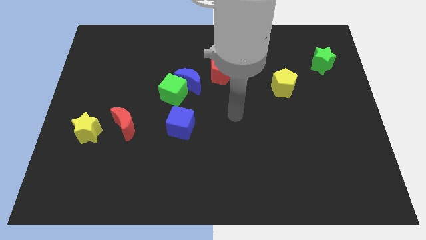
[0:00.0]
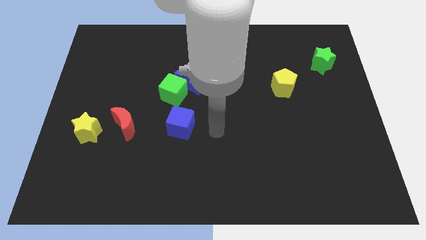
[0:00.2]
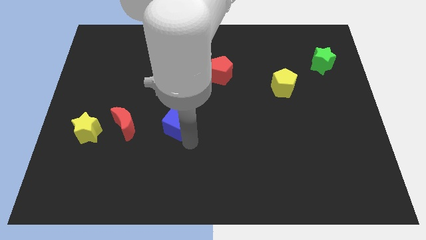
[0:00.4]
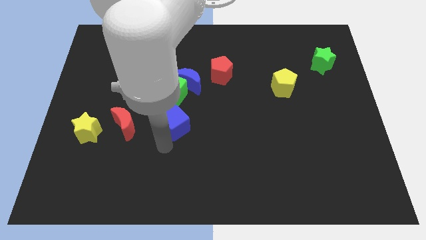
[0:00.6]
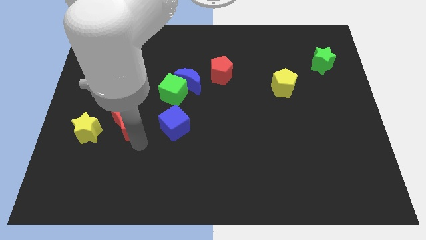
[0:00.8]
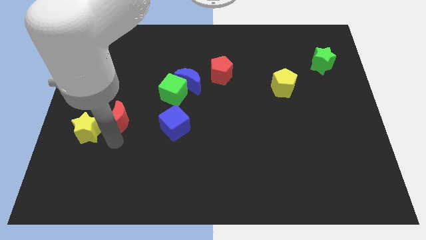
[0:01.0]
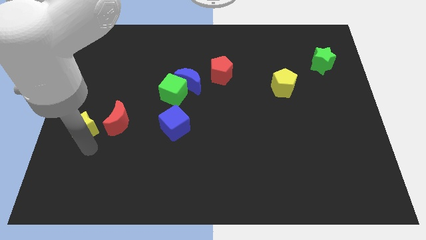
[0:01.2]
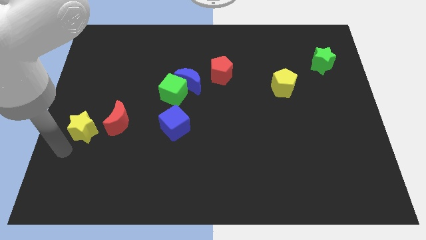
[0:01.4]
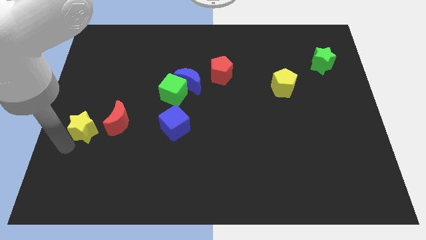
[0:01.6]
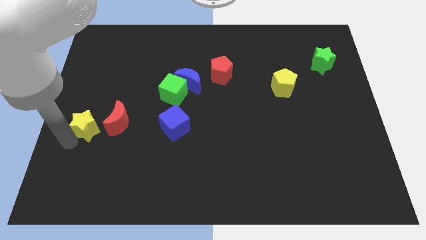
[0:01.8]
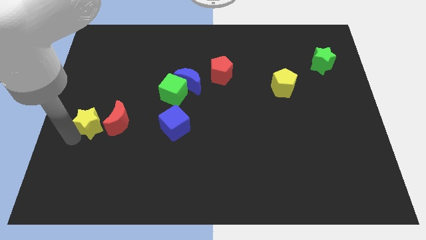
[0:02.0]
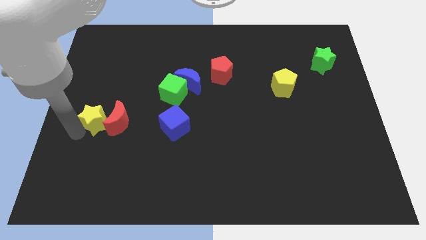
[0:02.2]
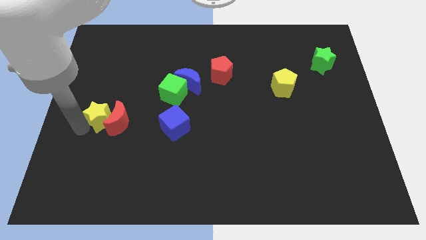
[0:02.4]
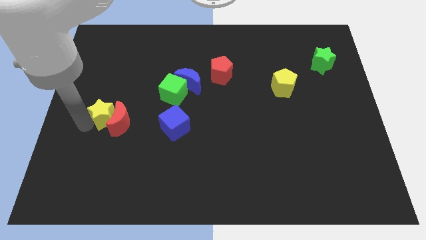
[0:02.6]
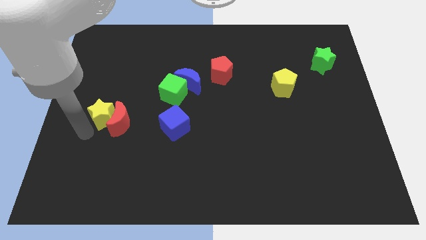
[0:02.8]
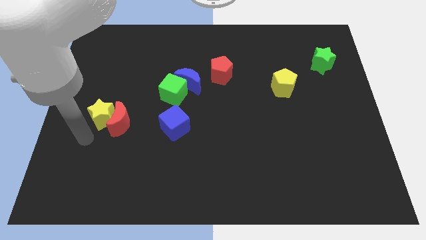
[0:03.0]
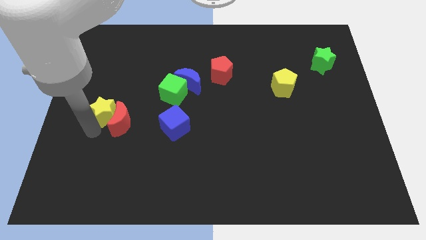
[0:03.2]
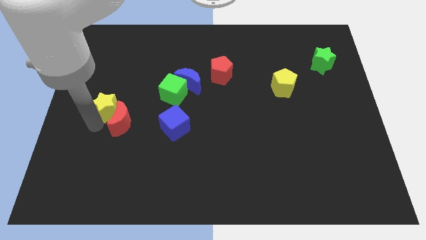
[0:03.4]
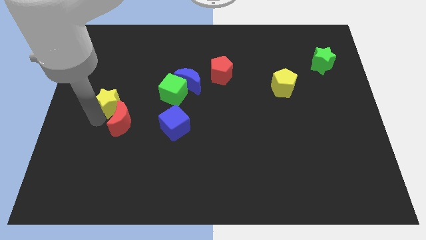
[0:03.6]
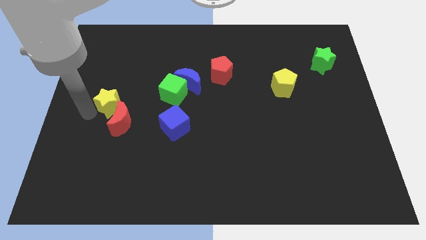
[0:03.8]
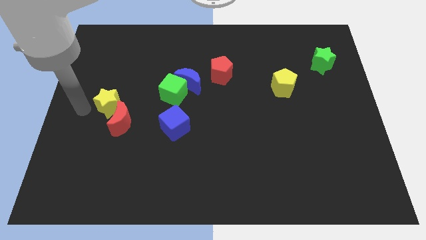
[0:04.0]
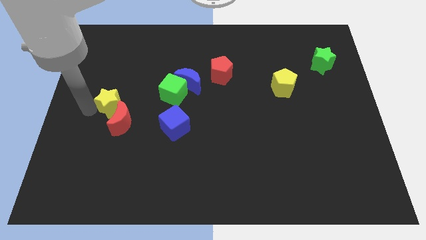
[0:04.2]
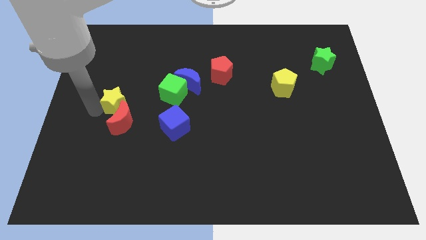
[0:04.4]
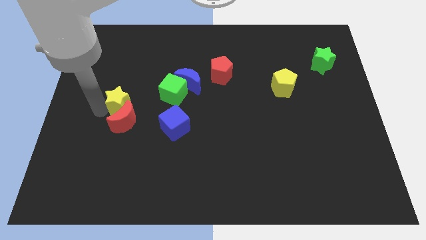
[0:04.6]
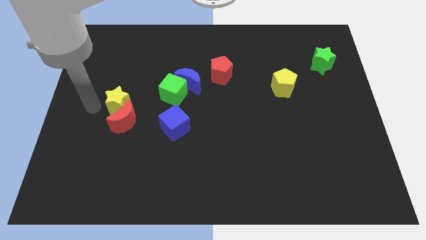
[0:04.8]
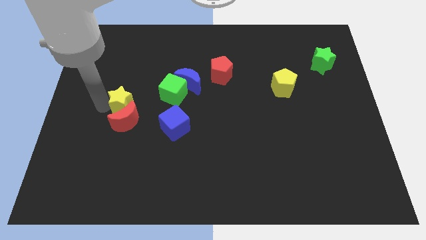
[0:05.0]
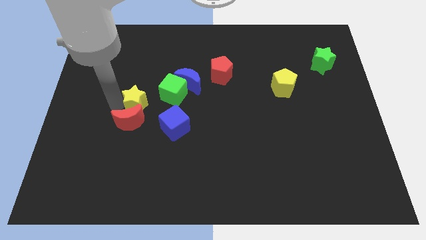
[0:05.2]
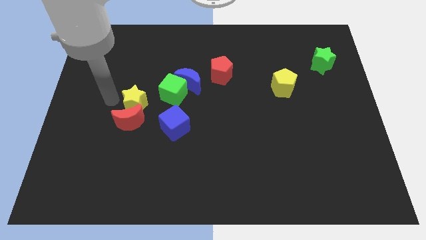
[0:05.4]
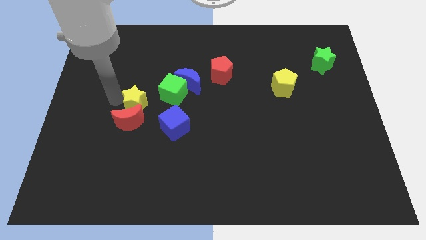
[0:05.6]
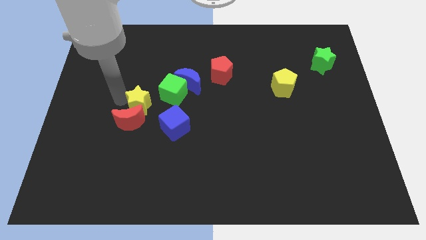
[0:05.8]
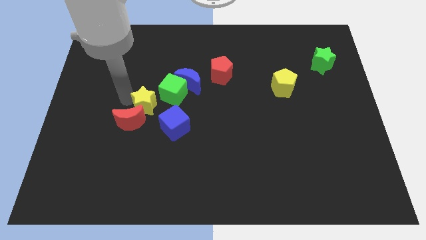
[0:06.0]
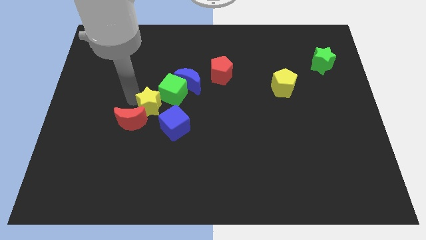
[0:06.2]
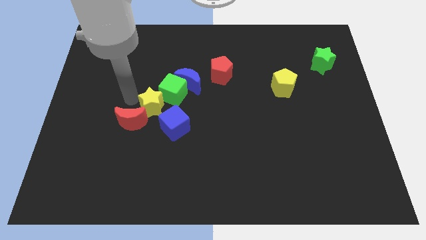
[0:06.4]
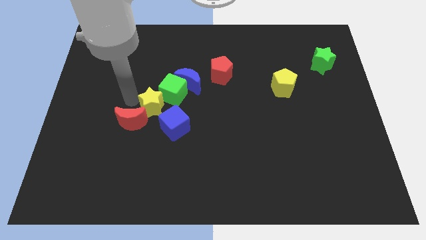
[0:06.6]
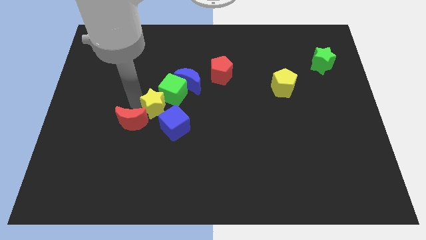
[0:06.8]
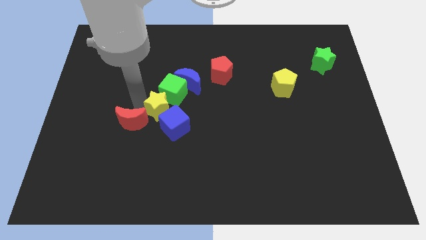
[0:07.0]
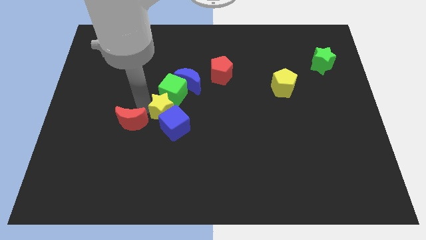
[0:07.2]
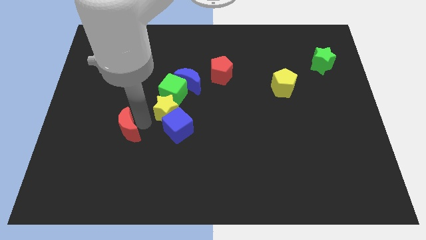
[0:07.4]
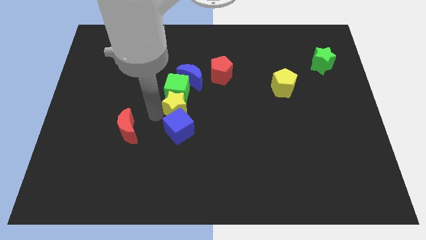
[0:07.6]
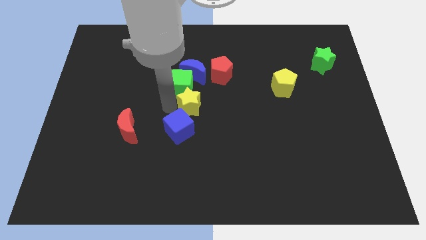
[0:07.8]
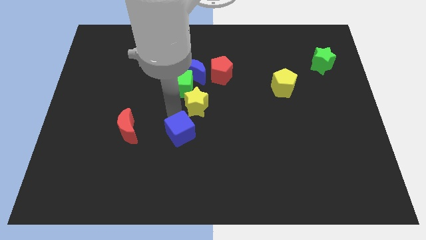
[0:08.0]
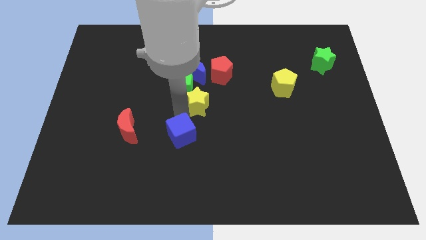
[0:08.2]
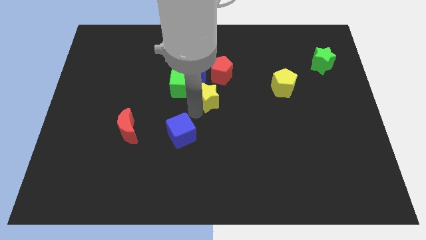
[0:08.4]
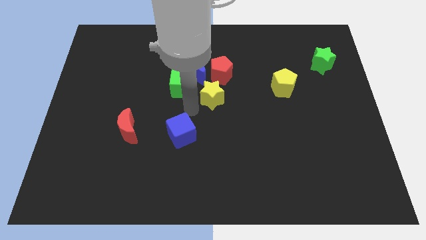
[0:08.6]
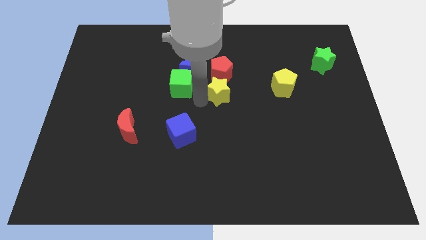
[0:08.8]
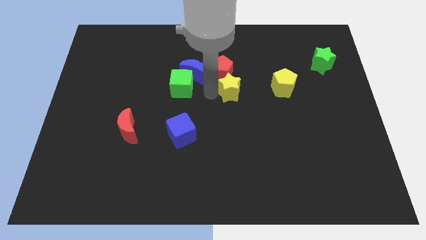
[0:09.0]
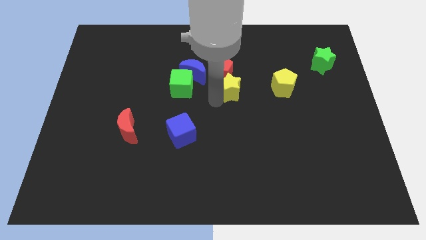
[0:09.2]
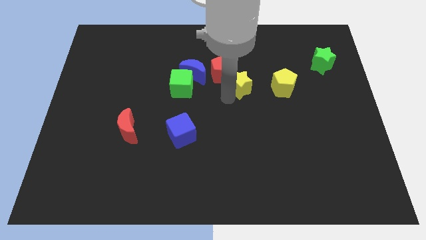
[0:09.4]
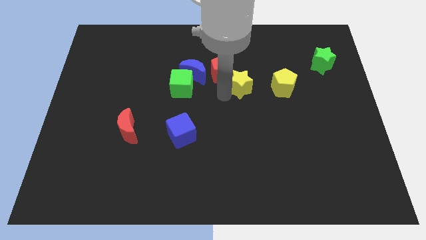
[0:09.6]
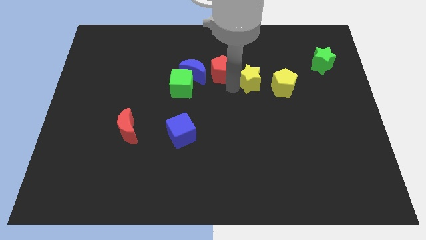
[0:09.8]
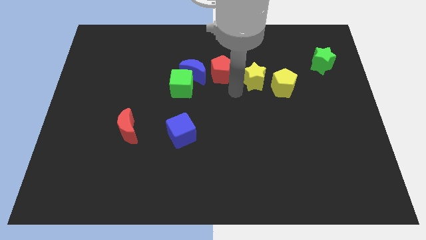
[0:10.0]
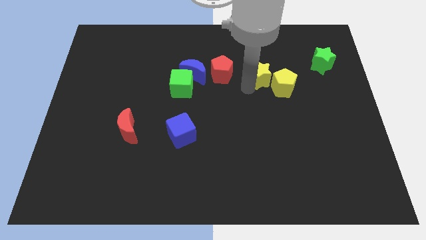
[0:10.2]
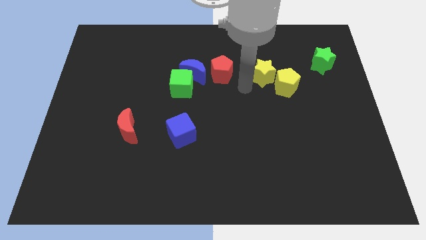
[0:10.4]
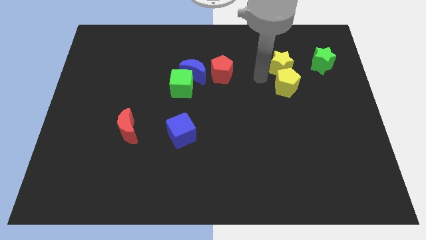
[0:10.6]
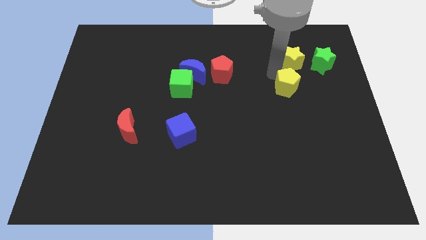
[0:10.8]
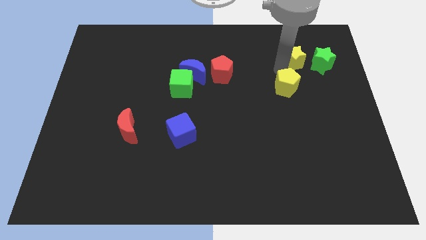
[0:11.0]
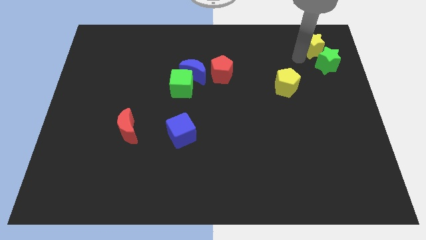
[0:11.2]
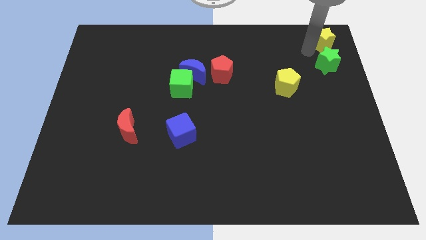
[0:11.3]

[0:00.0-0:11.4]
slide the yellow star to the top right corner
